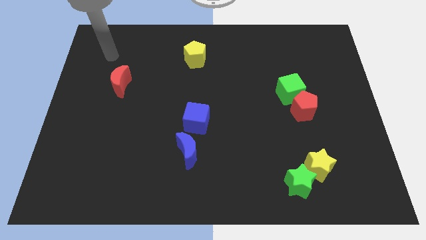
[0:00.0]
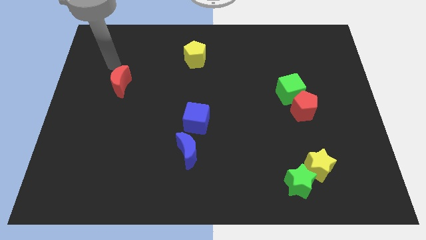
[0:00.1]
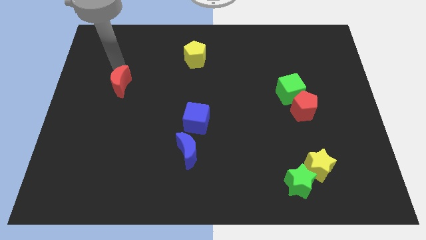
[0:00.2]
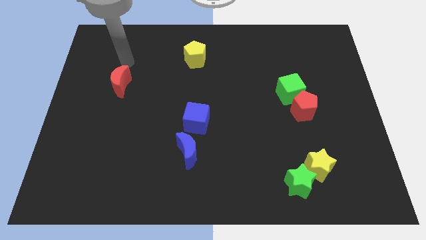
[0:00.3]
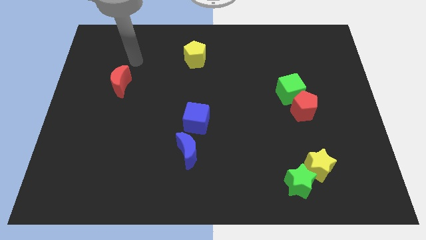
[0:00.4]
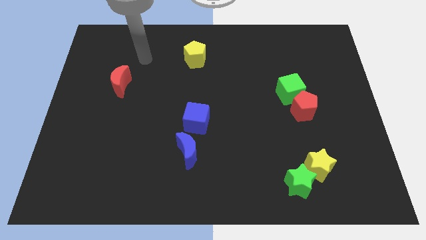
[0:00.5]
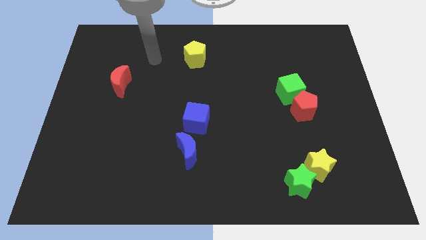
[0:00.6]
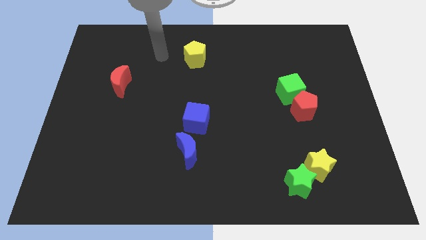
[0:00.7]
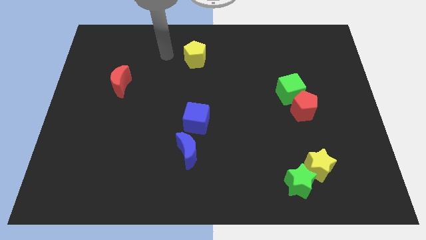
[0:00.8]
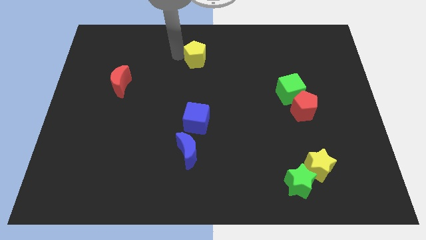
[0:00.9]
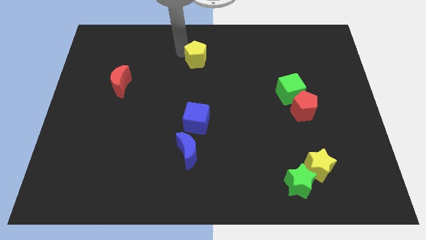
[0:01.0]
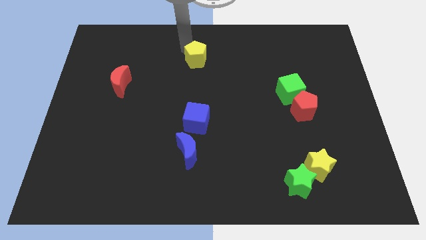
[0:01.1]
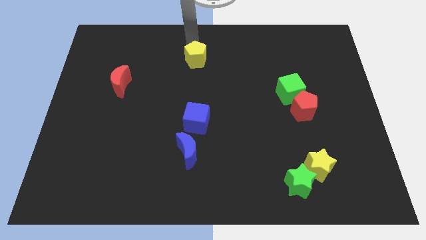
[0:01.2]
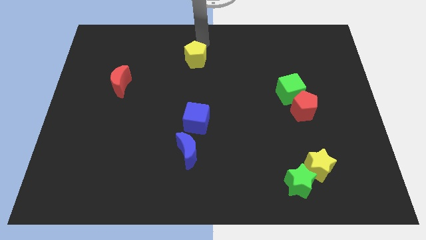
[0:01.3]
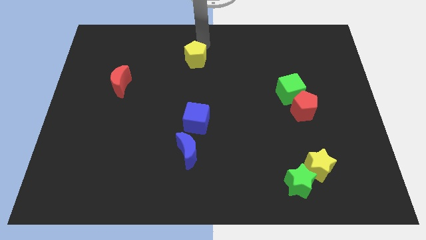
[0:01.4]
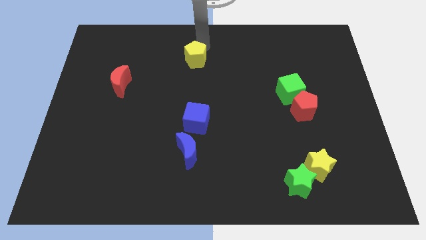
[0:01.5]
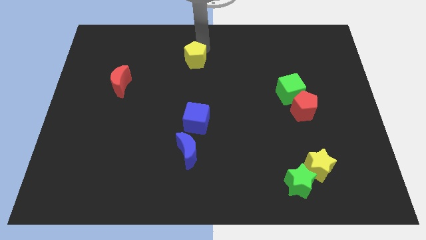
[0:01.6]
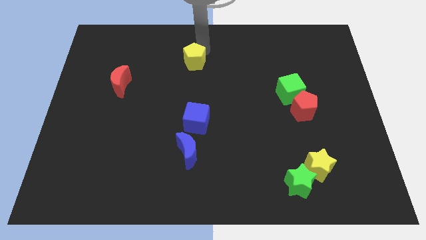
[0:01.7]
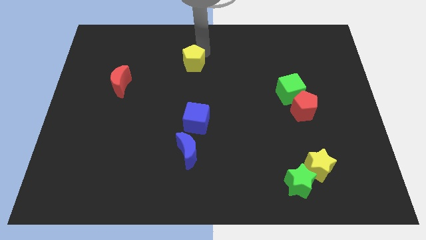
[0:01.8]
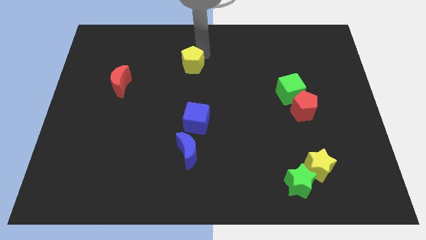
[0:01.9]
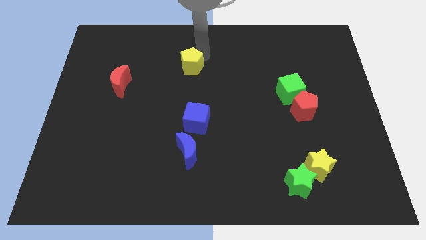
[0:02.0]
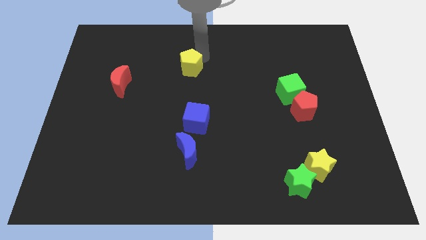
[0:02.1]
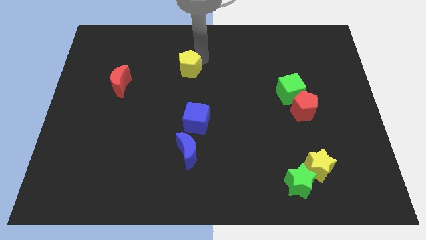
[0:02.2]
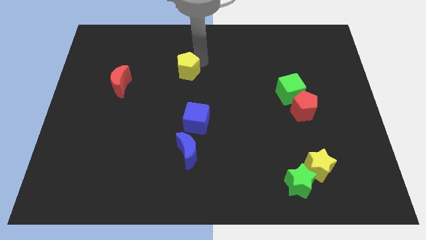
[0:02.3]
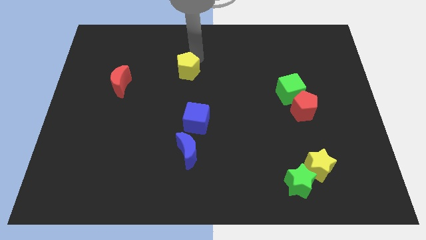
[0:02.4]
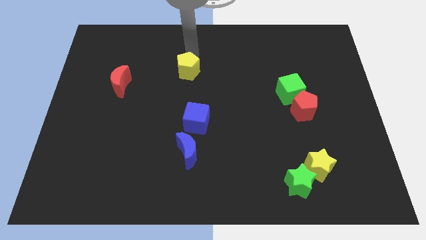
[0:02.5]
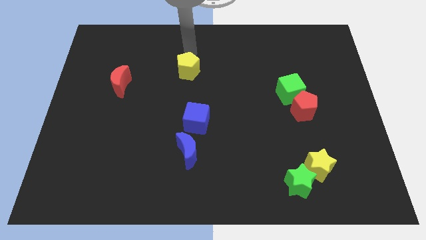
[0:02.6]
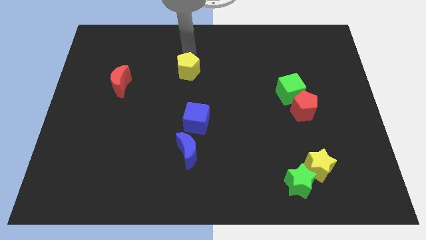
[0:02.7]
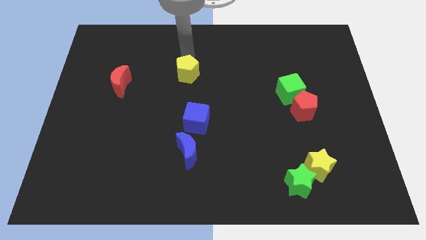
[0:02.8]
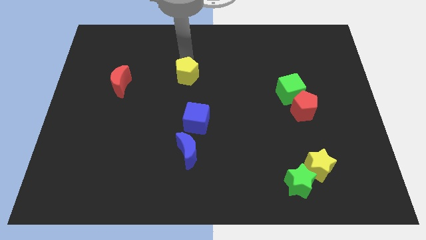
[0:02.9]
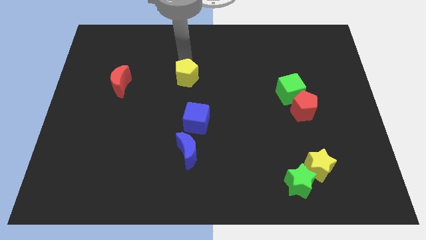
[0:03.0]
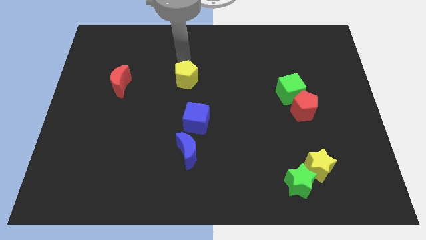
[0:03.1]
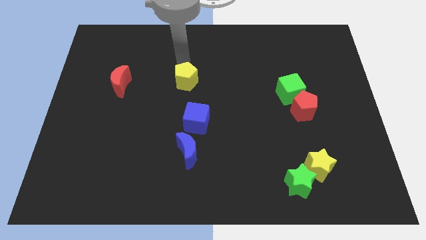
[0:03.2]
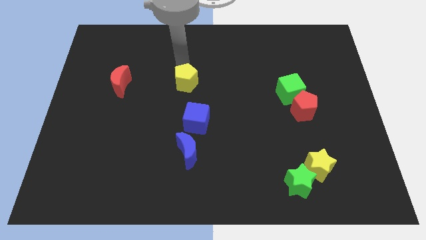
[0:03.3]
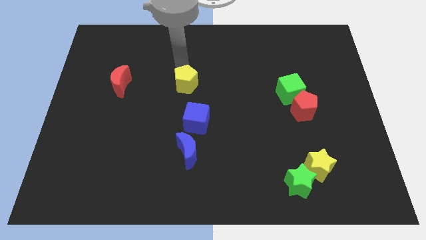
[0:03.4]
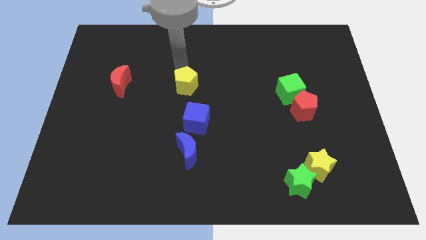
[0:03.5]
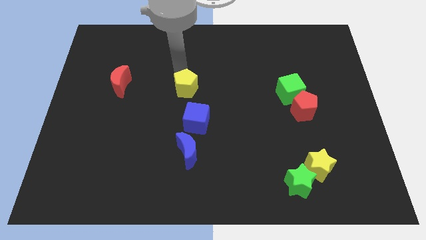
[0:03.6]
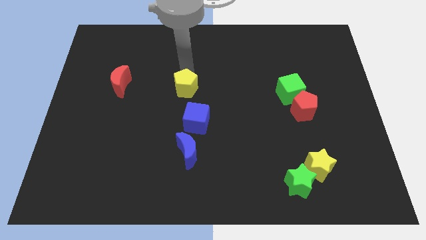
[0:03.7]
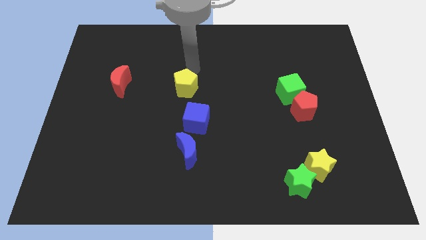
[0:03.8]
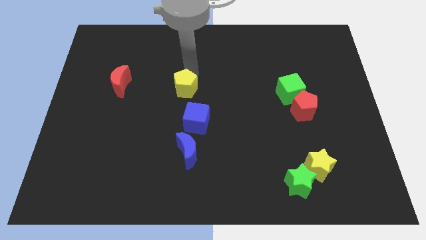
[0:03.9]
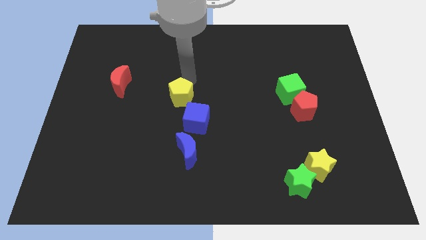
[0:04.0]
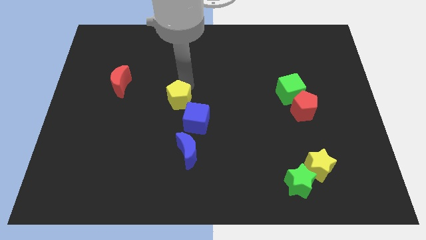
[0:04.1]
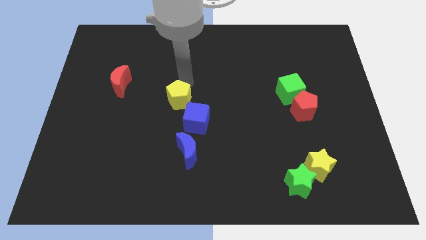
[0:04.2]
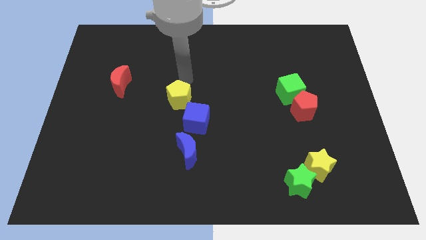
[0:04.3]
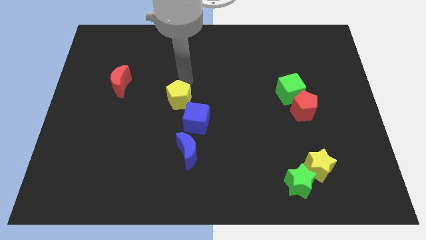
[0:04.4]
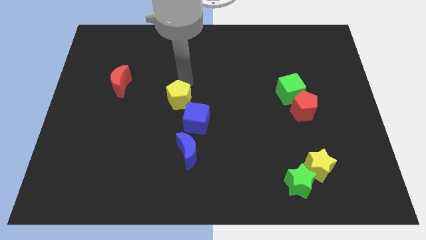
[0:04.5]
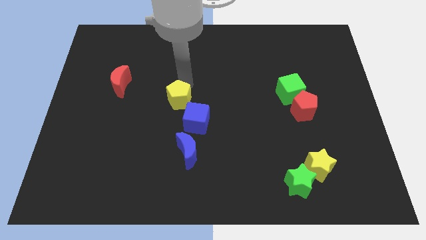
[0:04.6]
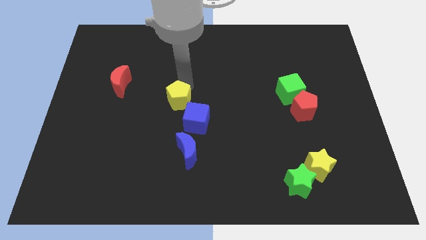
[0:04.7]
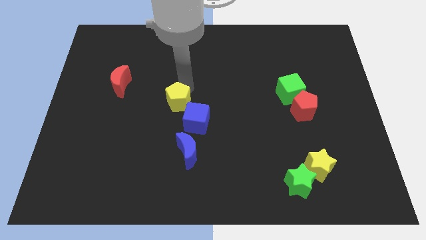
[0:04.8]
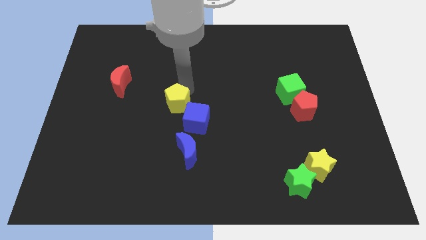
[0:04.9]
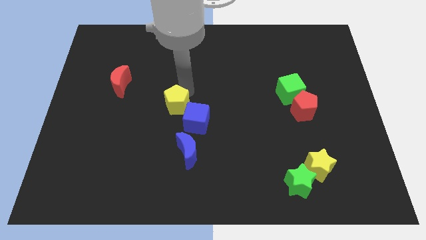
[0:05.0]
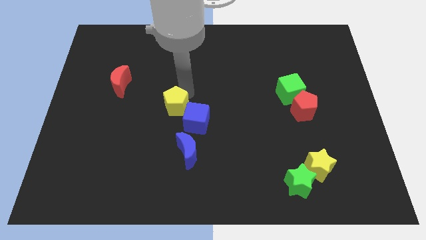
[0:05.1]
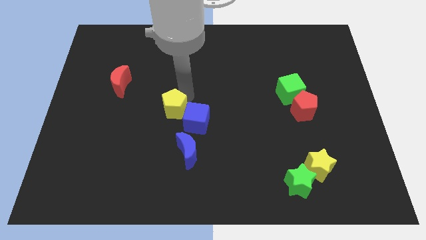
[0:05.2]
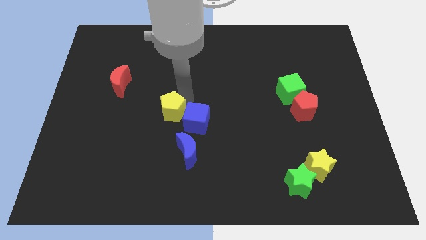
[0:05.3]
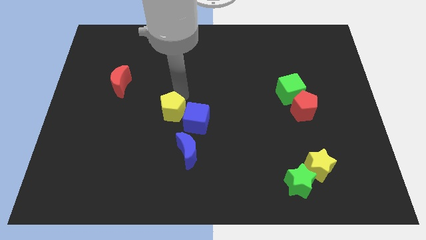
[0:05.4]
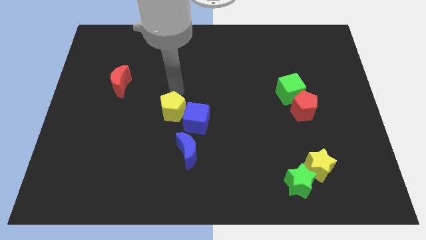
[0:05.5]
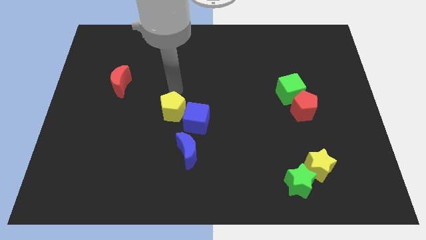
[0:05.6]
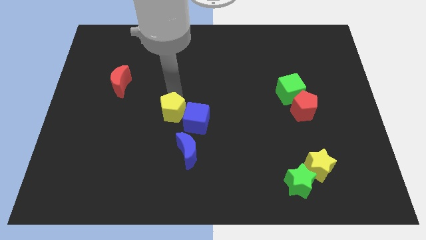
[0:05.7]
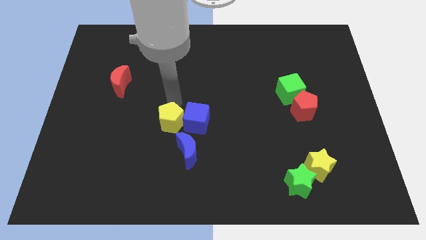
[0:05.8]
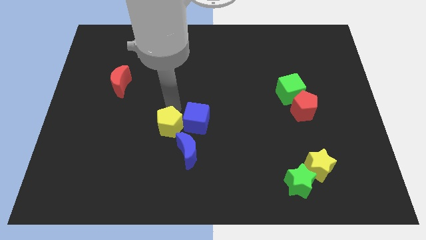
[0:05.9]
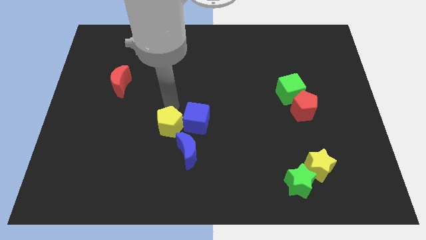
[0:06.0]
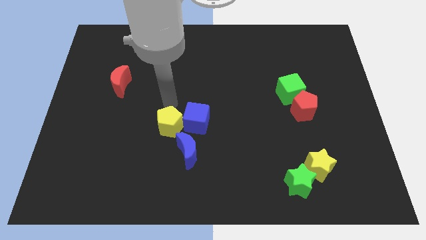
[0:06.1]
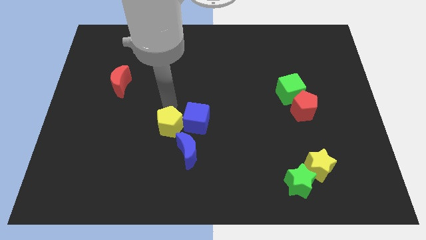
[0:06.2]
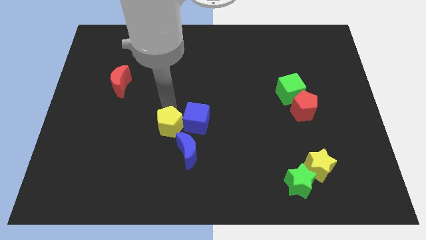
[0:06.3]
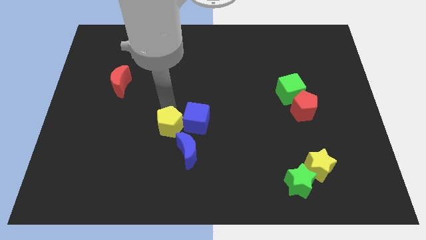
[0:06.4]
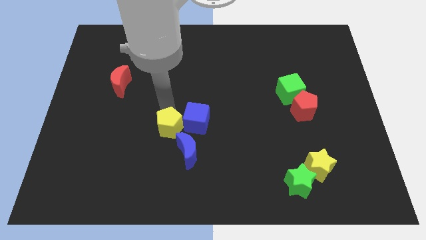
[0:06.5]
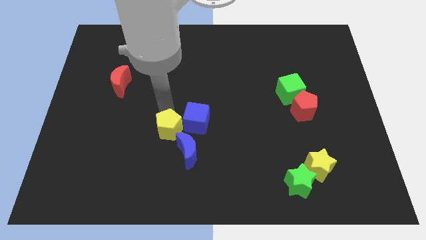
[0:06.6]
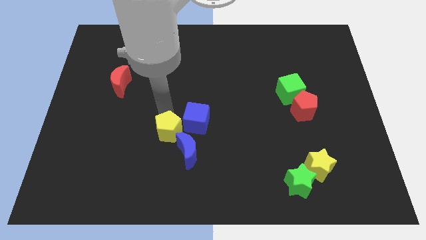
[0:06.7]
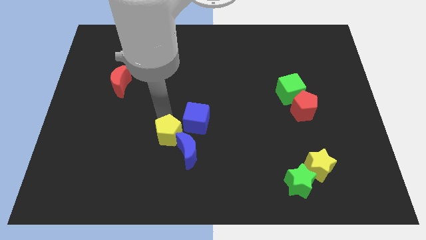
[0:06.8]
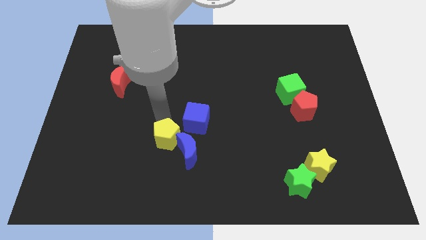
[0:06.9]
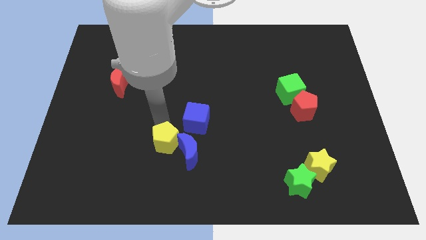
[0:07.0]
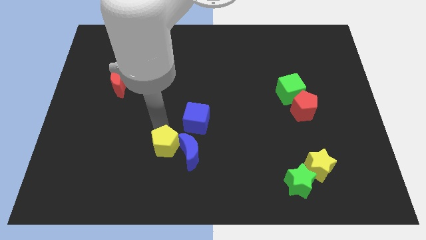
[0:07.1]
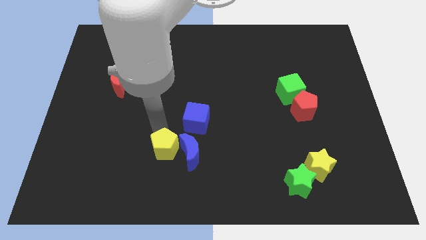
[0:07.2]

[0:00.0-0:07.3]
push the yellow pentagon to the bottom left side of the blue moon
